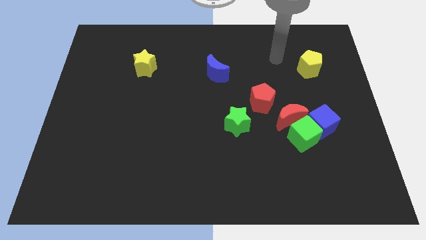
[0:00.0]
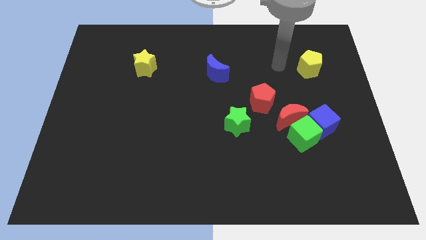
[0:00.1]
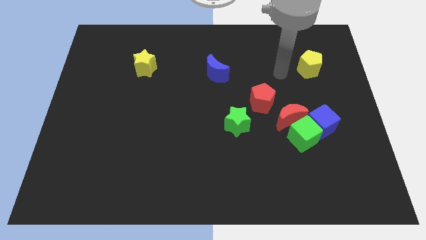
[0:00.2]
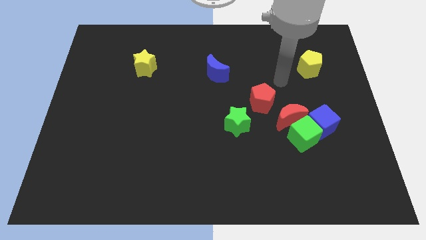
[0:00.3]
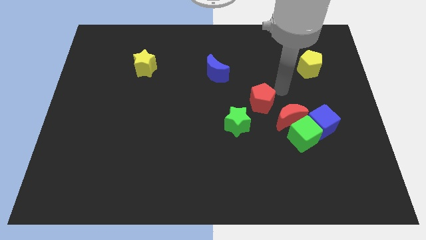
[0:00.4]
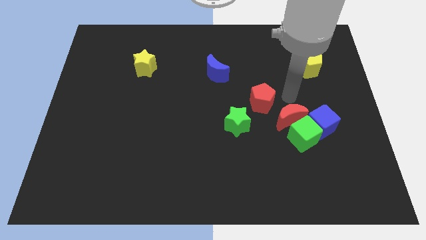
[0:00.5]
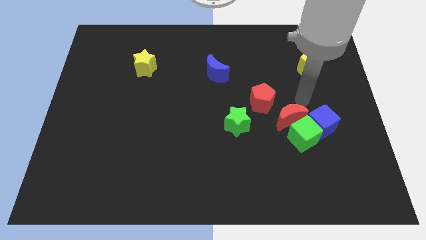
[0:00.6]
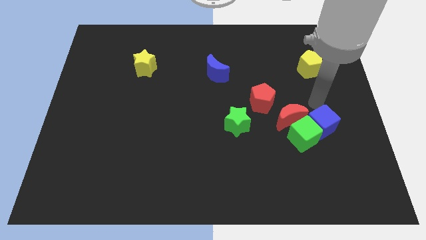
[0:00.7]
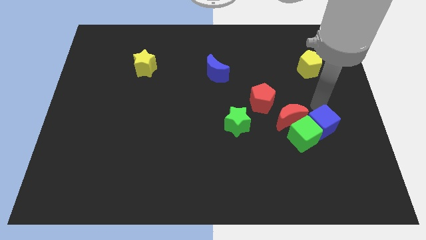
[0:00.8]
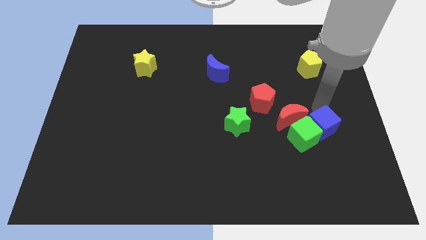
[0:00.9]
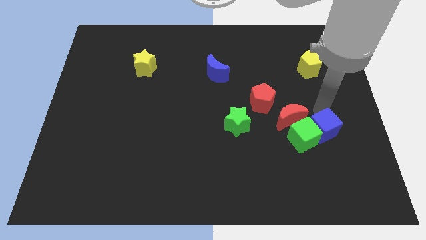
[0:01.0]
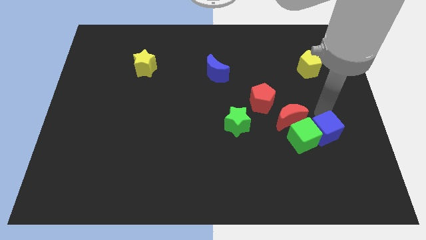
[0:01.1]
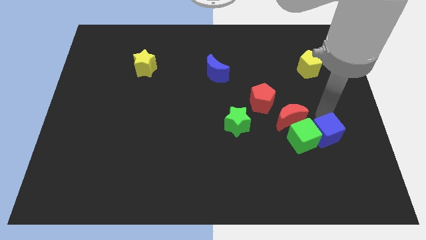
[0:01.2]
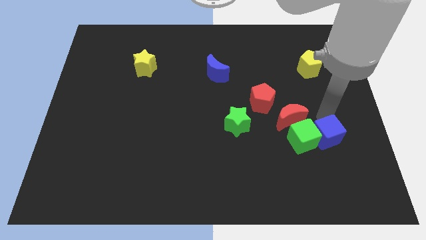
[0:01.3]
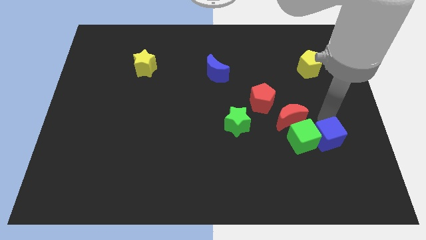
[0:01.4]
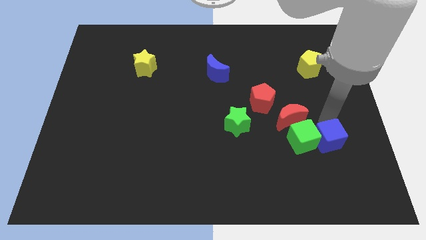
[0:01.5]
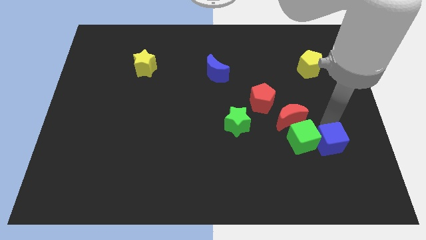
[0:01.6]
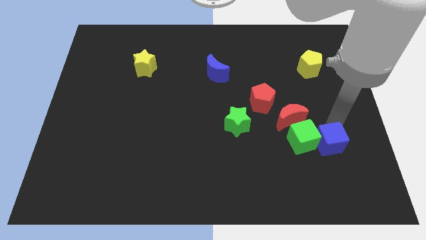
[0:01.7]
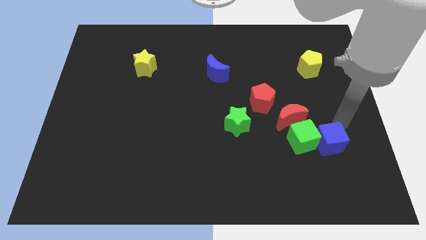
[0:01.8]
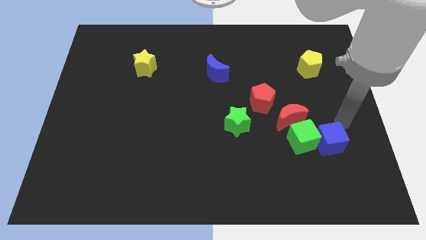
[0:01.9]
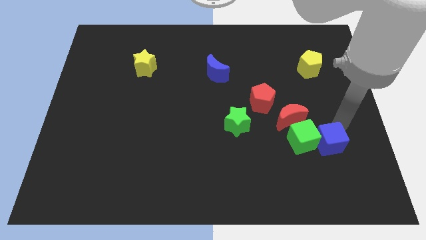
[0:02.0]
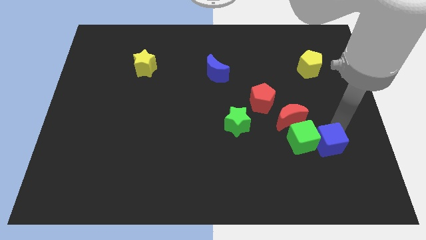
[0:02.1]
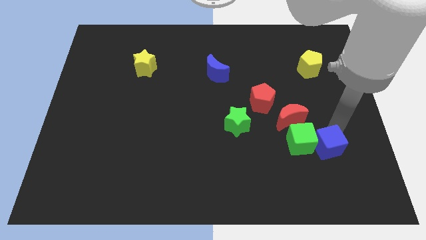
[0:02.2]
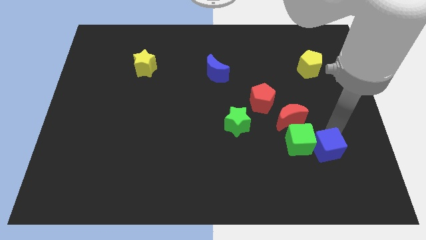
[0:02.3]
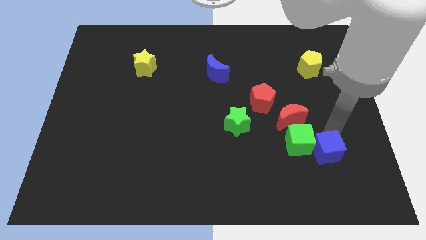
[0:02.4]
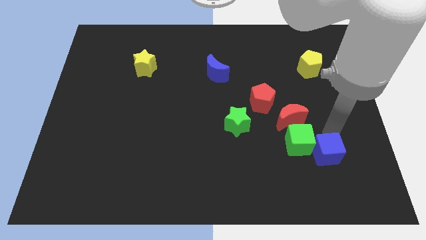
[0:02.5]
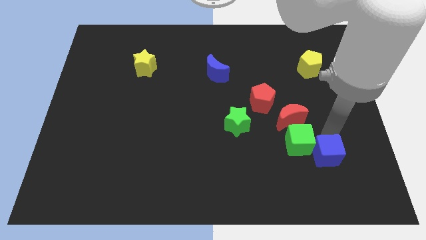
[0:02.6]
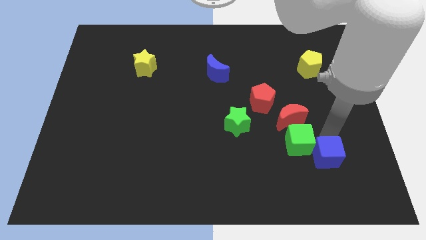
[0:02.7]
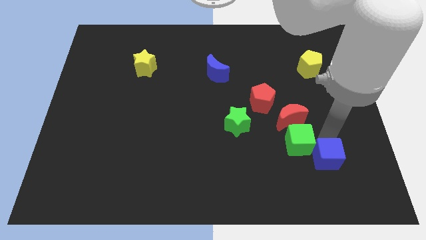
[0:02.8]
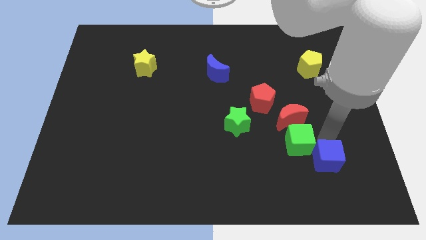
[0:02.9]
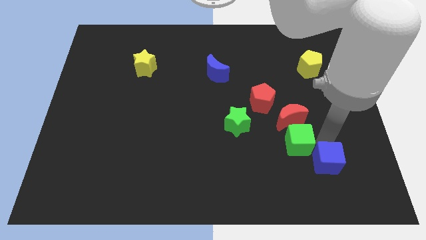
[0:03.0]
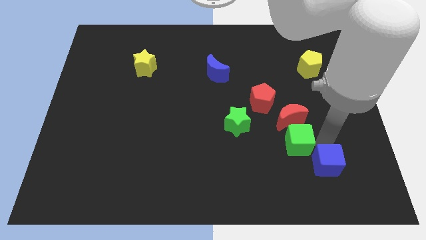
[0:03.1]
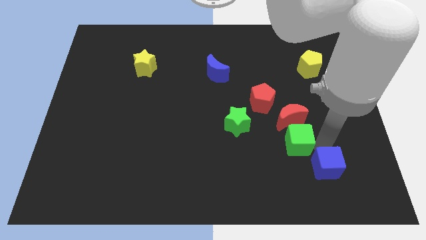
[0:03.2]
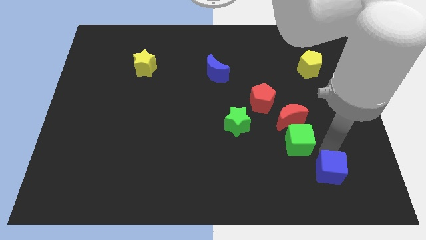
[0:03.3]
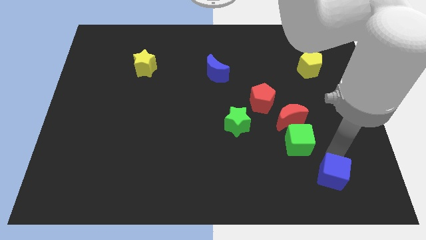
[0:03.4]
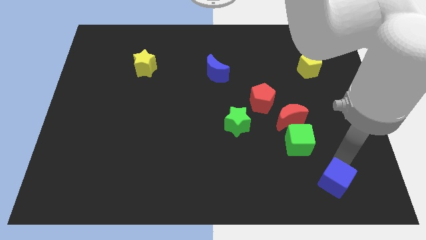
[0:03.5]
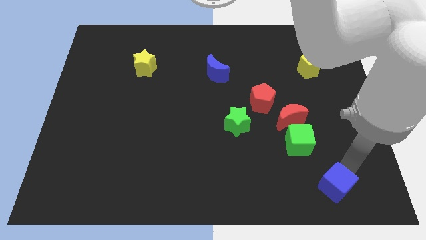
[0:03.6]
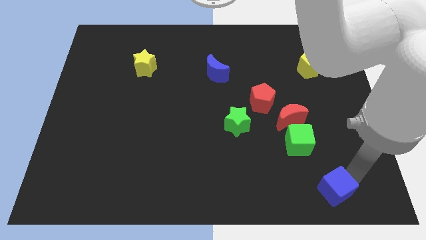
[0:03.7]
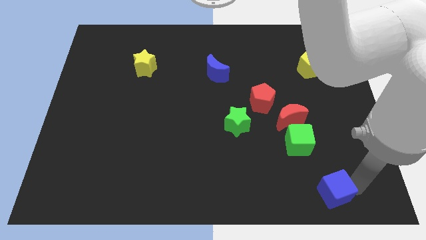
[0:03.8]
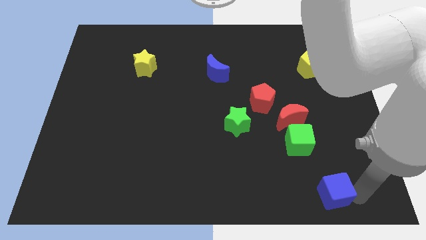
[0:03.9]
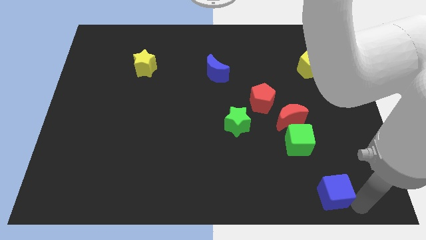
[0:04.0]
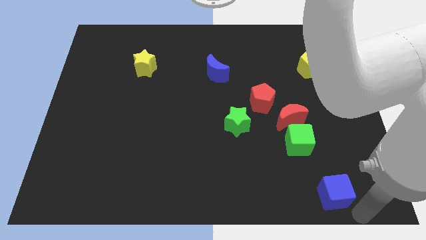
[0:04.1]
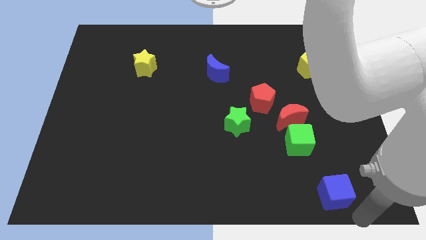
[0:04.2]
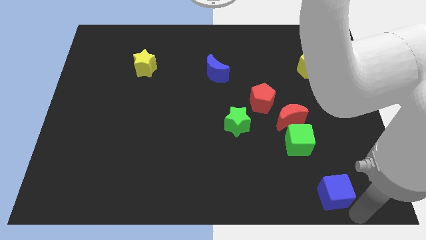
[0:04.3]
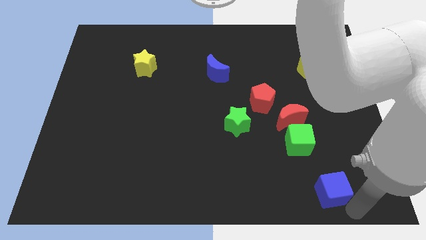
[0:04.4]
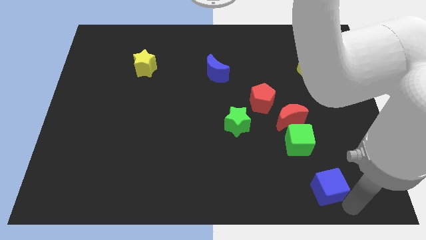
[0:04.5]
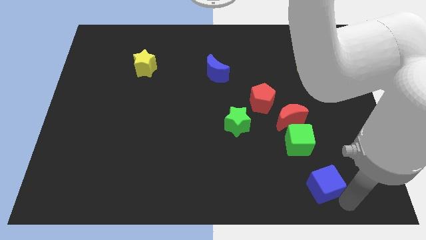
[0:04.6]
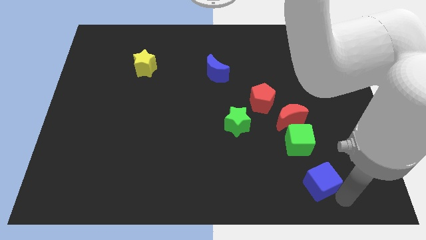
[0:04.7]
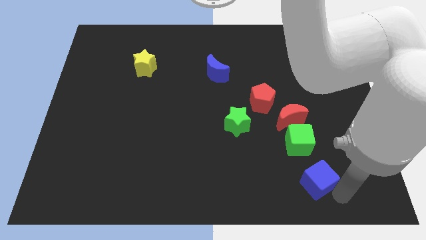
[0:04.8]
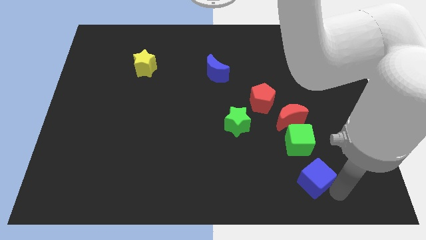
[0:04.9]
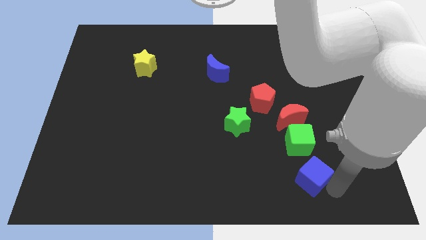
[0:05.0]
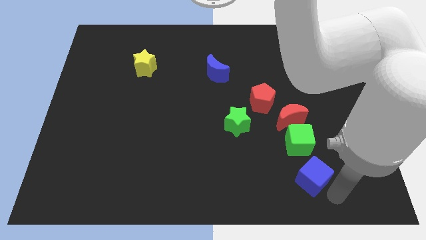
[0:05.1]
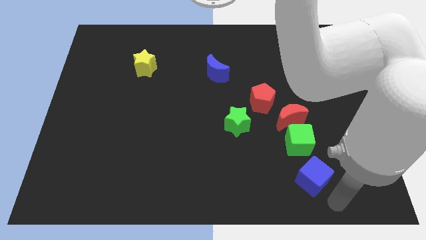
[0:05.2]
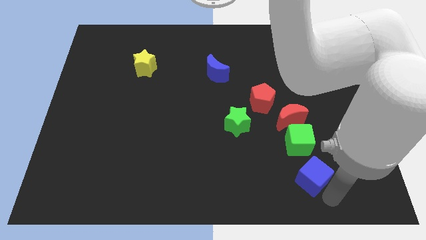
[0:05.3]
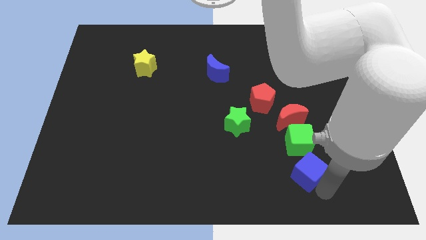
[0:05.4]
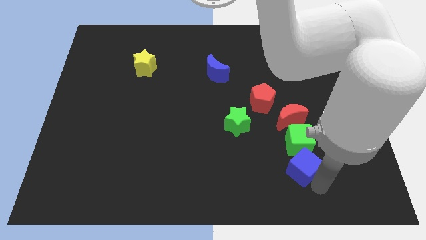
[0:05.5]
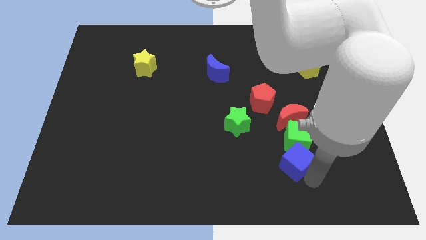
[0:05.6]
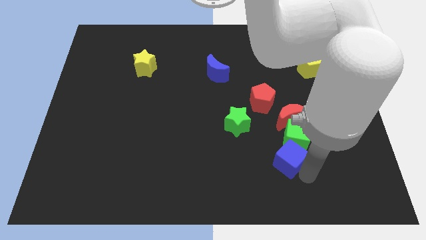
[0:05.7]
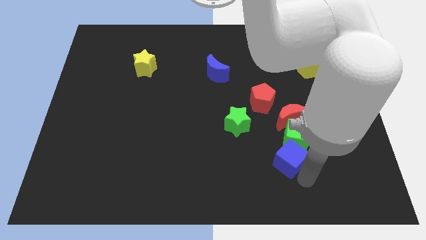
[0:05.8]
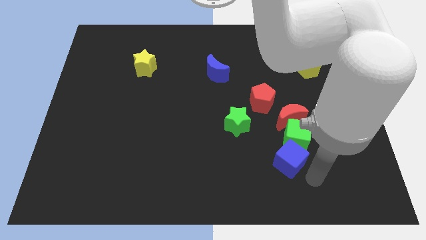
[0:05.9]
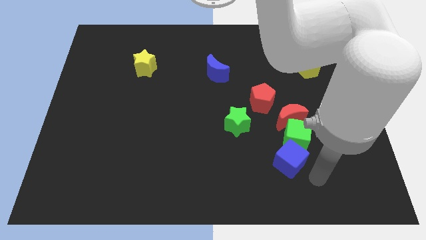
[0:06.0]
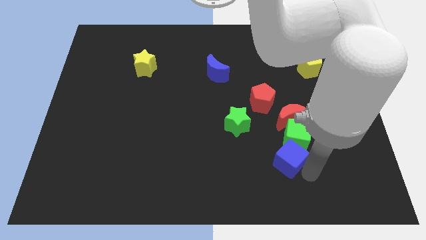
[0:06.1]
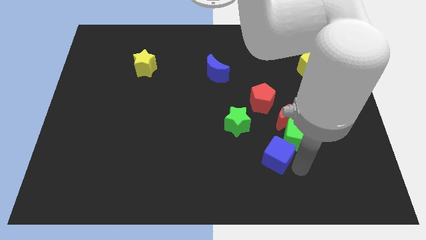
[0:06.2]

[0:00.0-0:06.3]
slide the blue cube to the left side of the green cube
